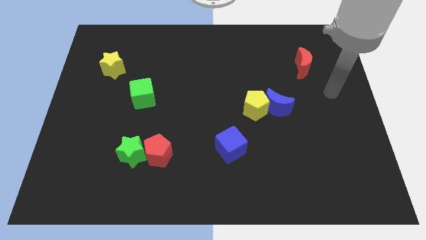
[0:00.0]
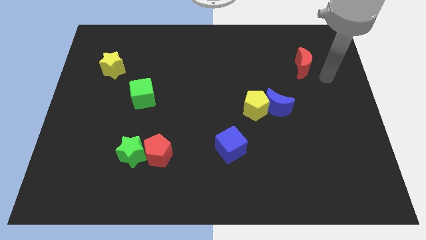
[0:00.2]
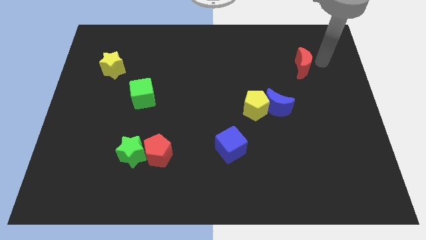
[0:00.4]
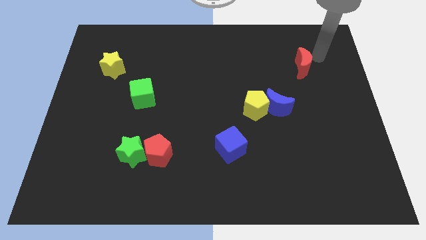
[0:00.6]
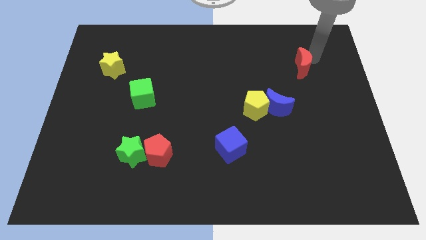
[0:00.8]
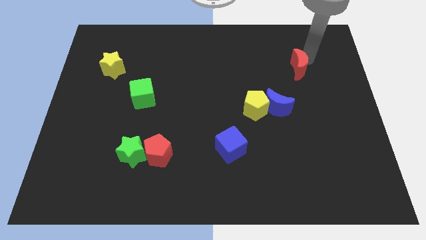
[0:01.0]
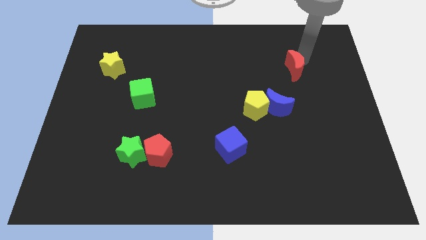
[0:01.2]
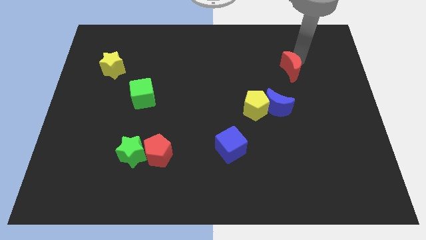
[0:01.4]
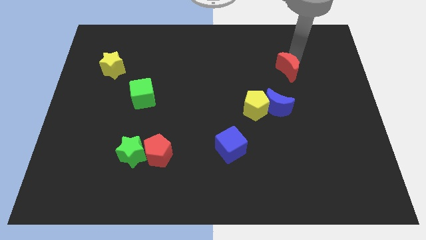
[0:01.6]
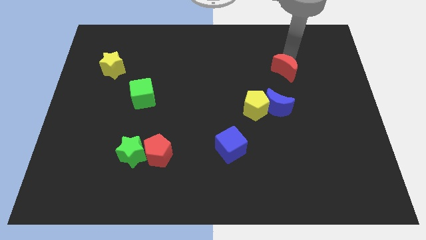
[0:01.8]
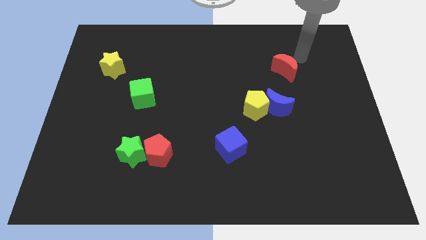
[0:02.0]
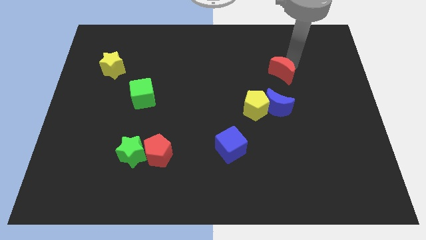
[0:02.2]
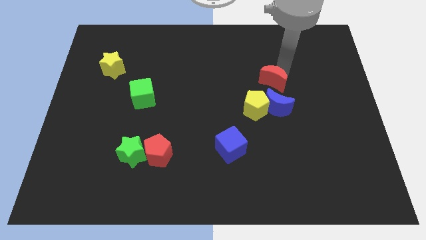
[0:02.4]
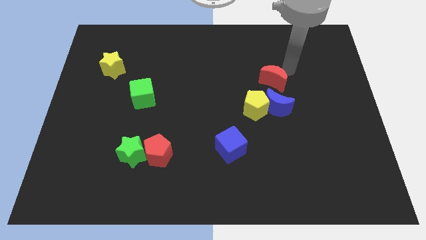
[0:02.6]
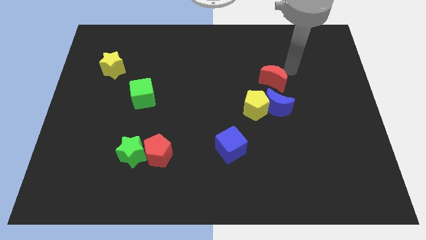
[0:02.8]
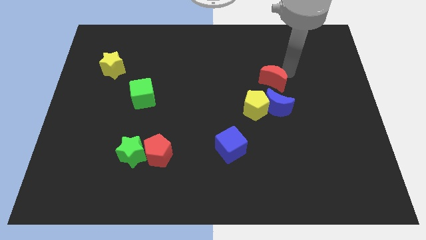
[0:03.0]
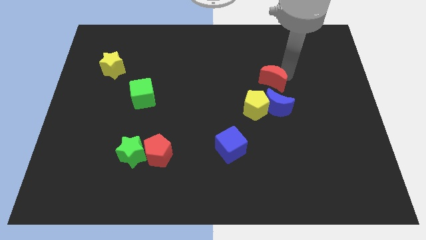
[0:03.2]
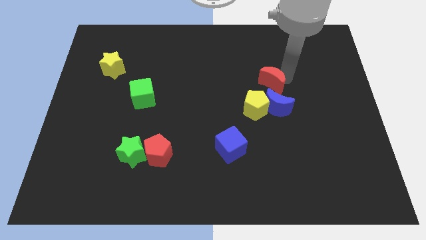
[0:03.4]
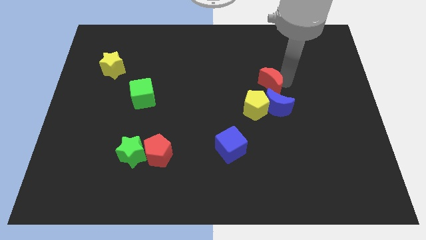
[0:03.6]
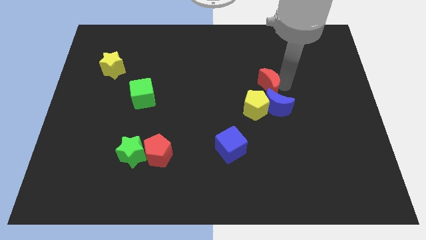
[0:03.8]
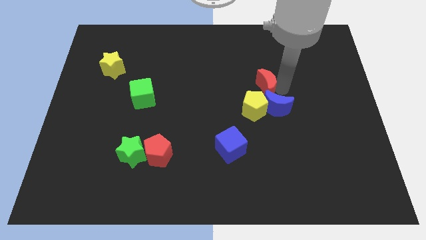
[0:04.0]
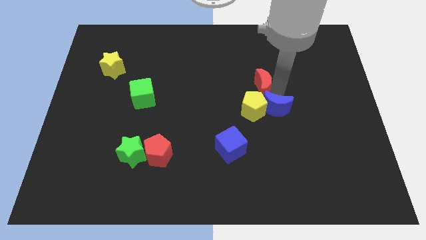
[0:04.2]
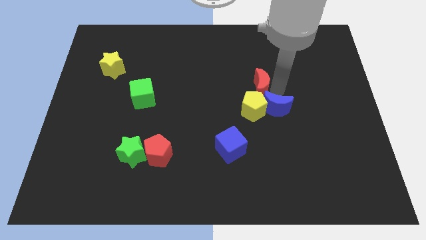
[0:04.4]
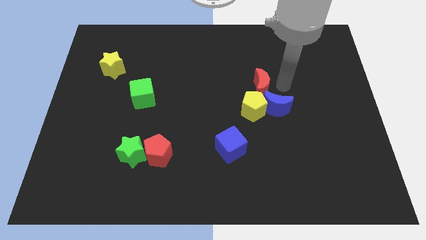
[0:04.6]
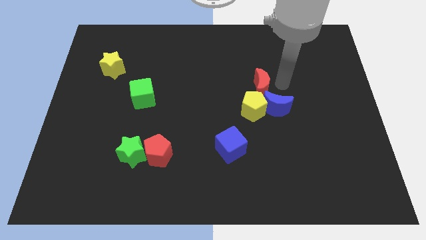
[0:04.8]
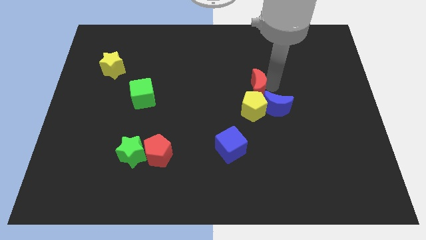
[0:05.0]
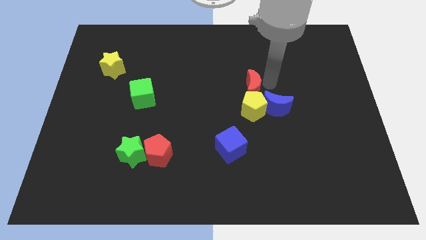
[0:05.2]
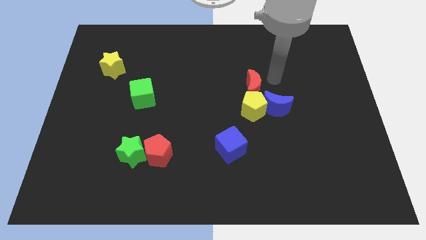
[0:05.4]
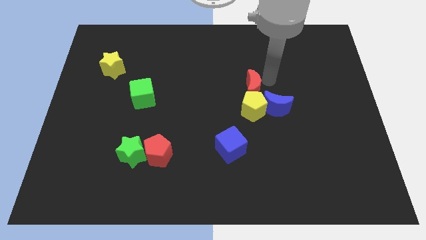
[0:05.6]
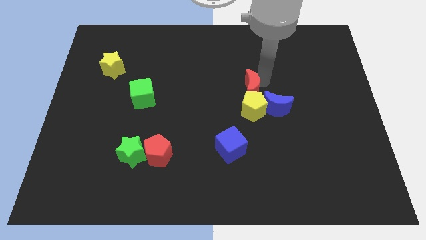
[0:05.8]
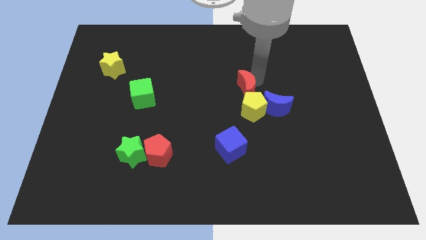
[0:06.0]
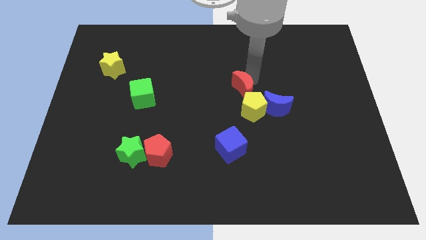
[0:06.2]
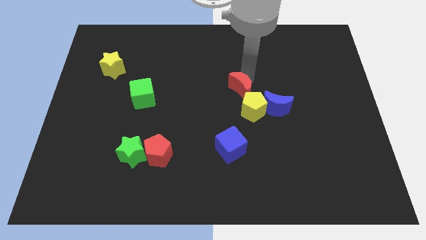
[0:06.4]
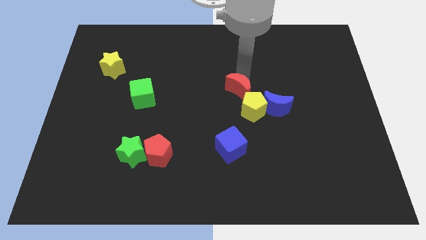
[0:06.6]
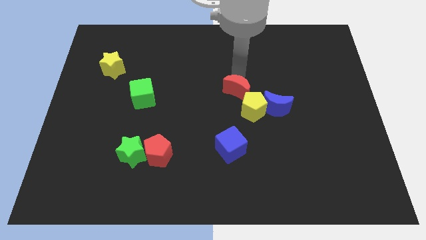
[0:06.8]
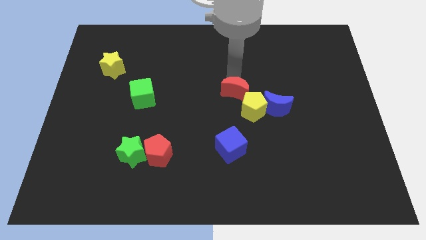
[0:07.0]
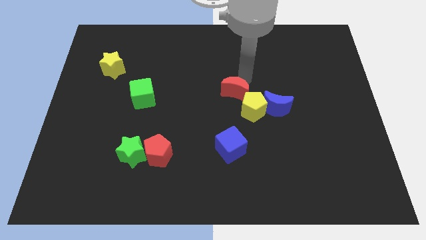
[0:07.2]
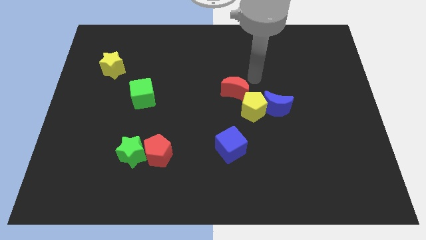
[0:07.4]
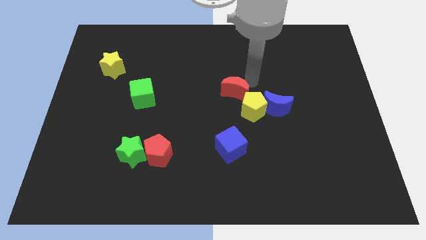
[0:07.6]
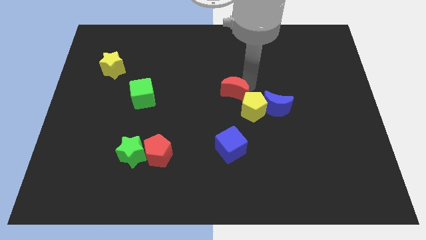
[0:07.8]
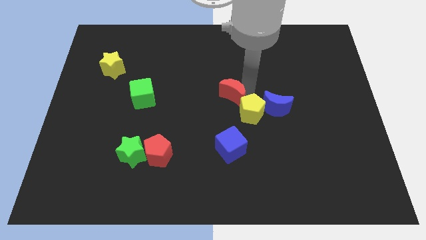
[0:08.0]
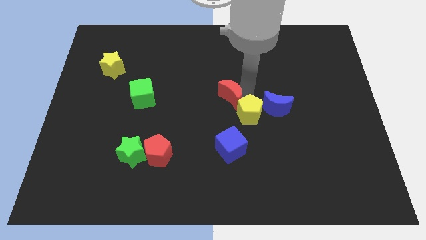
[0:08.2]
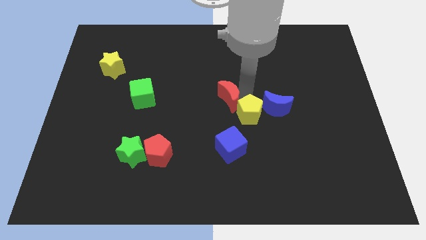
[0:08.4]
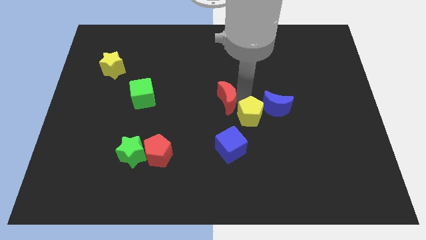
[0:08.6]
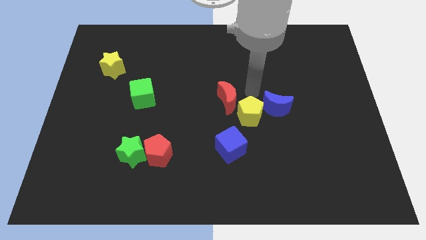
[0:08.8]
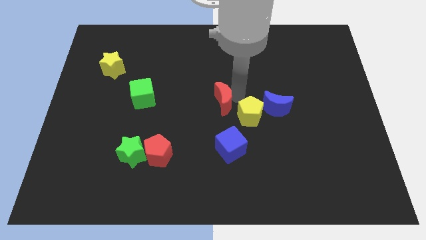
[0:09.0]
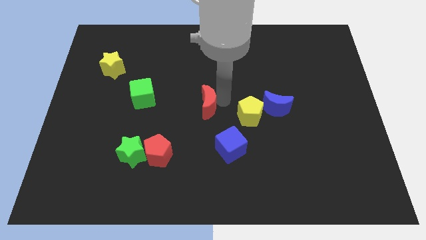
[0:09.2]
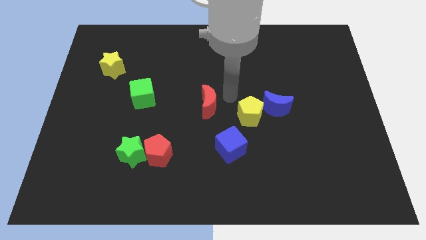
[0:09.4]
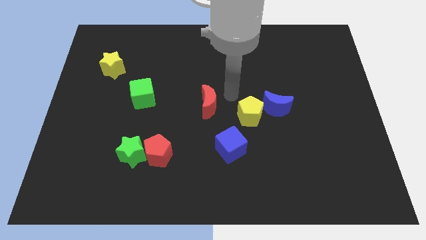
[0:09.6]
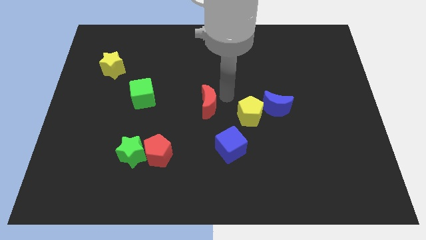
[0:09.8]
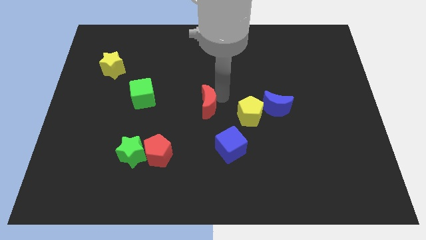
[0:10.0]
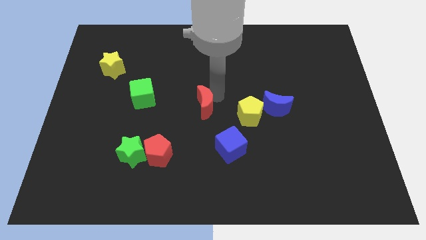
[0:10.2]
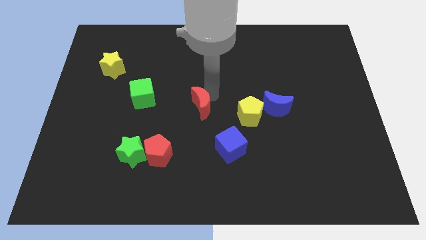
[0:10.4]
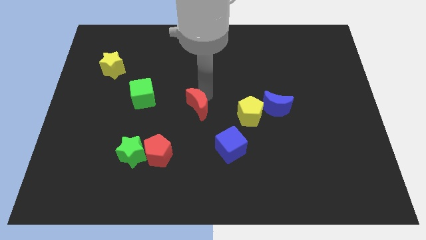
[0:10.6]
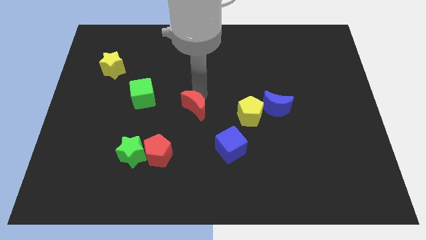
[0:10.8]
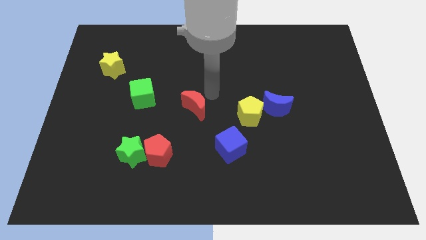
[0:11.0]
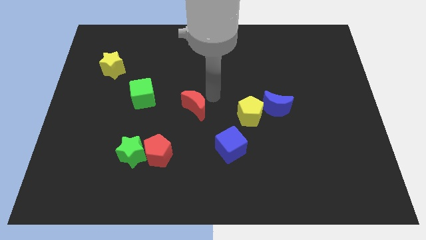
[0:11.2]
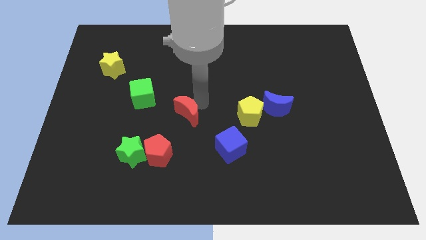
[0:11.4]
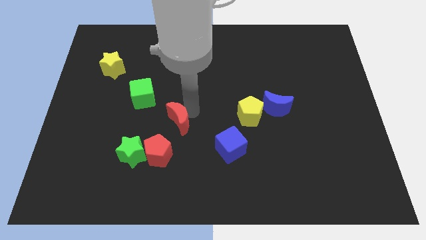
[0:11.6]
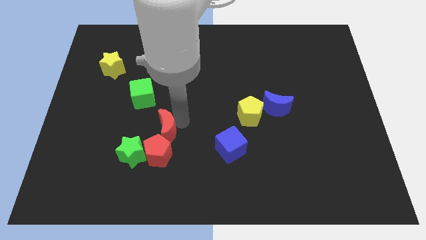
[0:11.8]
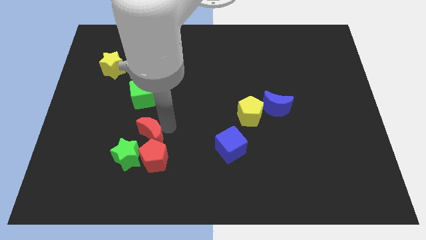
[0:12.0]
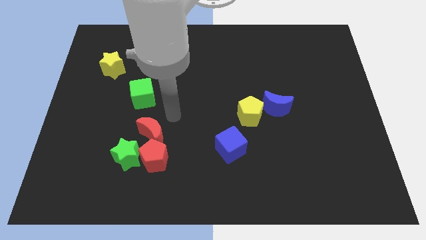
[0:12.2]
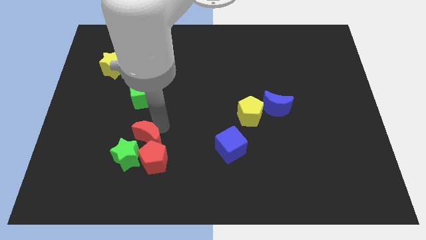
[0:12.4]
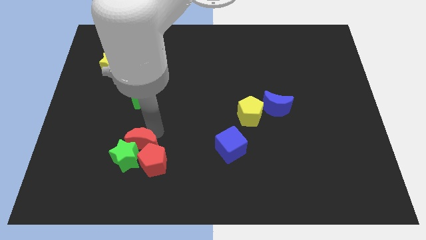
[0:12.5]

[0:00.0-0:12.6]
slide the red moon to the green star
